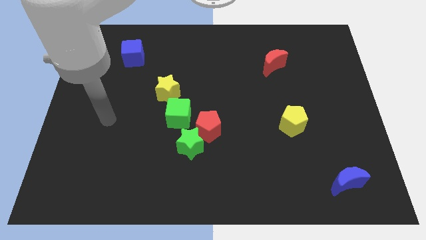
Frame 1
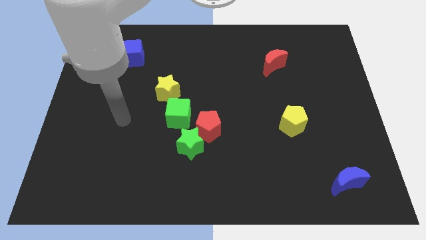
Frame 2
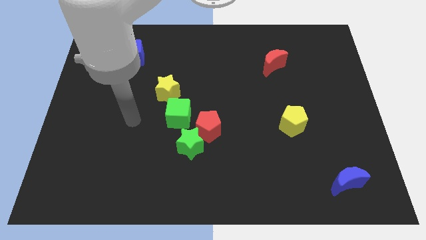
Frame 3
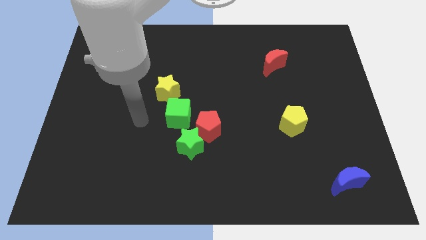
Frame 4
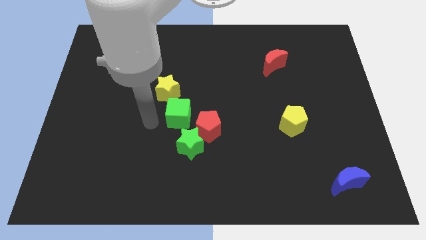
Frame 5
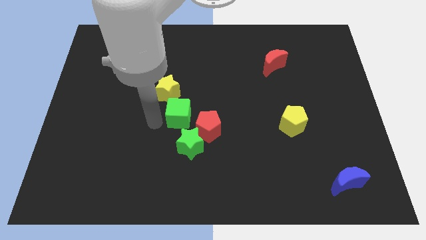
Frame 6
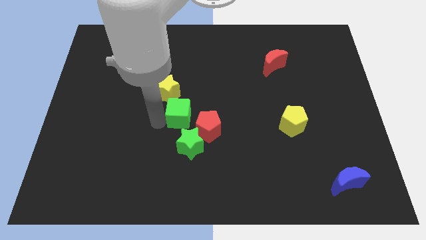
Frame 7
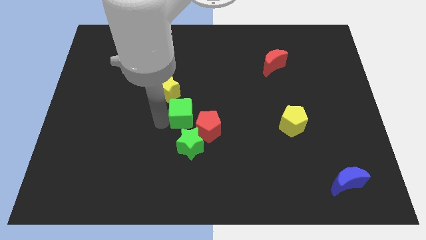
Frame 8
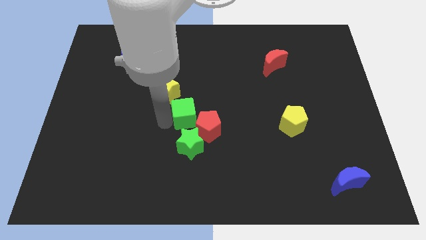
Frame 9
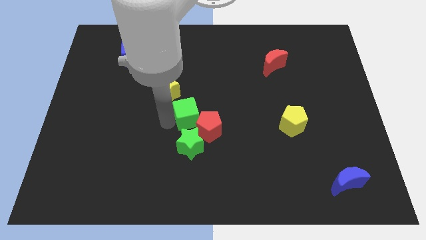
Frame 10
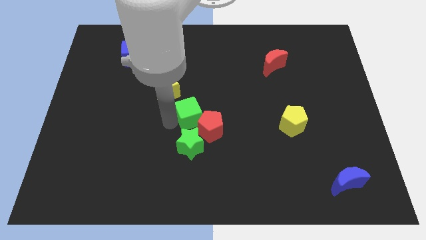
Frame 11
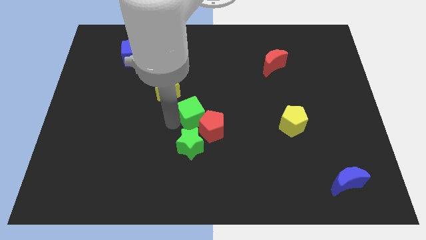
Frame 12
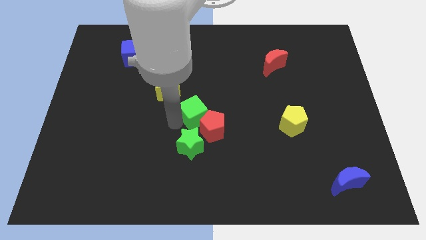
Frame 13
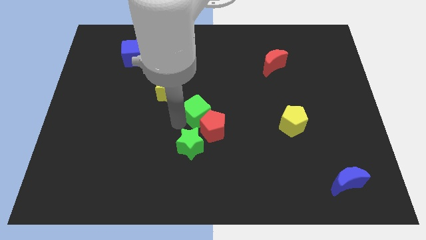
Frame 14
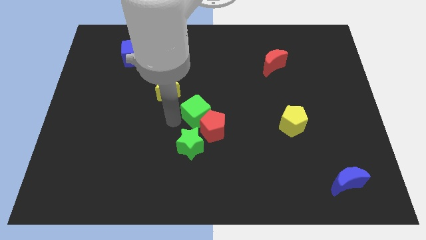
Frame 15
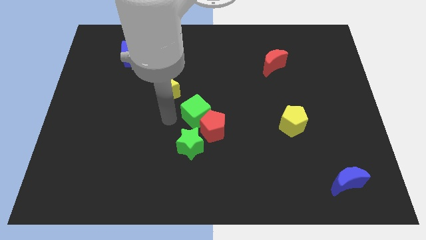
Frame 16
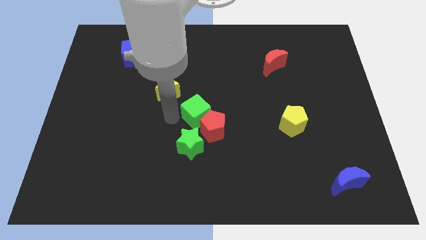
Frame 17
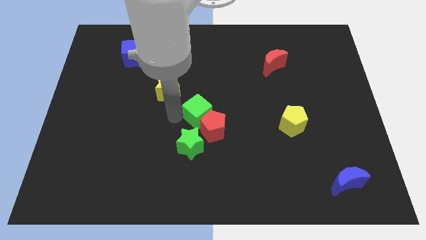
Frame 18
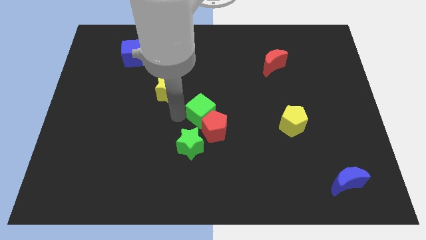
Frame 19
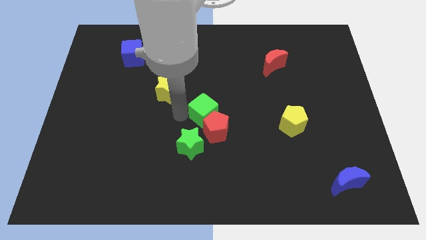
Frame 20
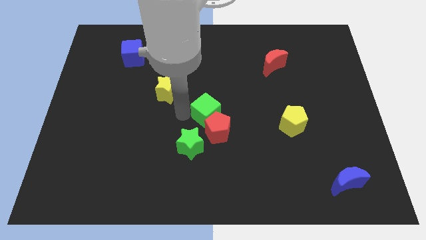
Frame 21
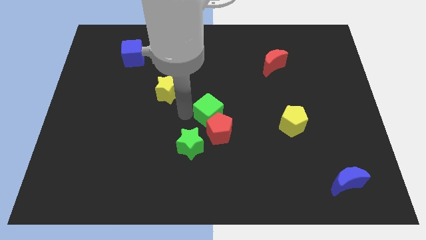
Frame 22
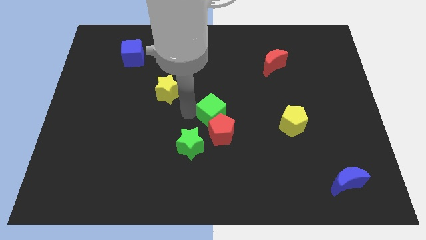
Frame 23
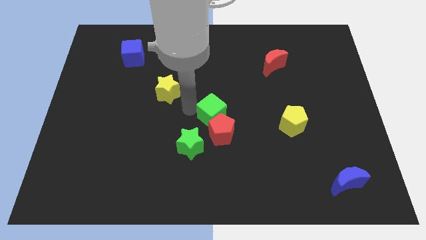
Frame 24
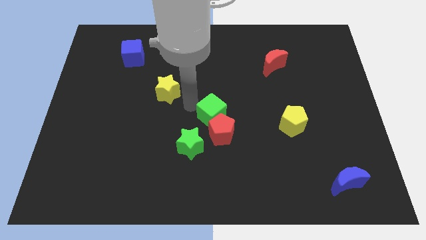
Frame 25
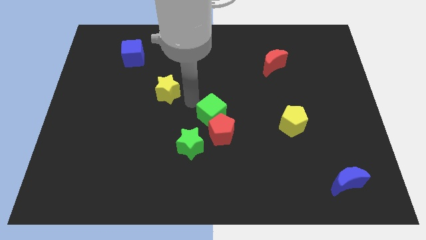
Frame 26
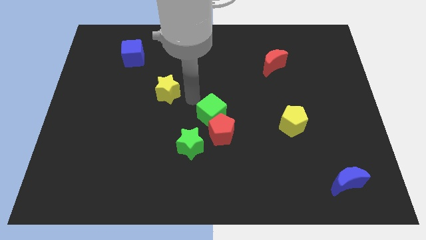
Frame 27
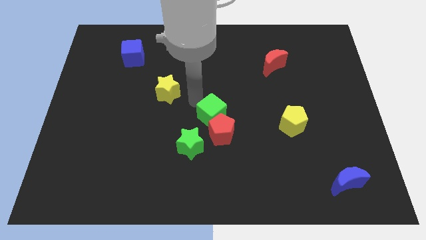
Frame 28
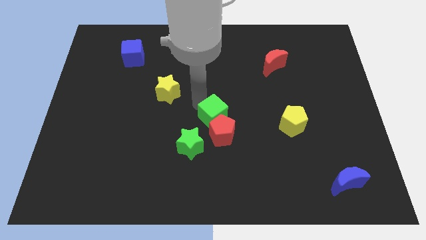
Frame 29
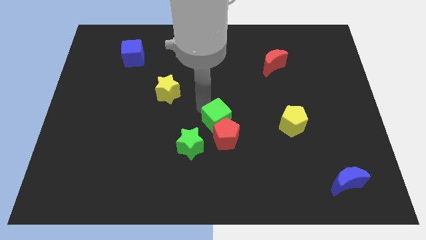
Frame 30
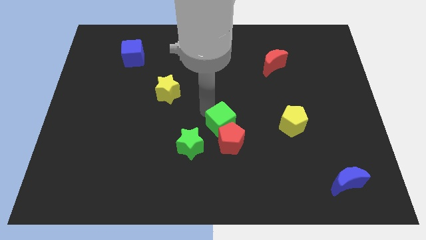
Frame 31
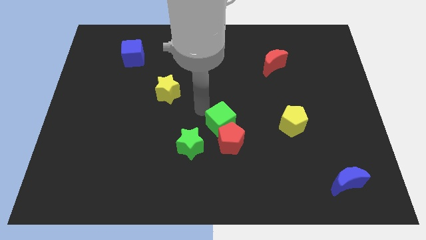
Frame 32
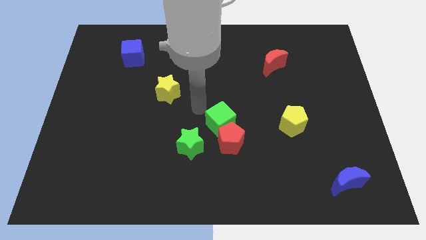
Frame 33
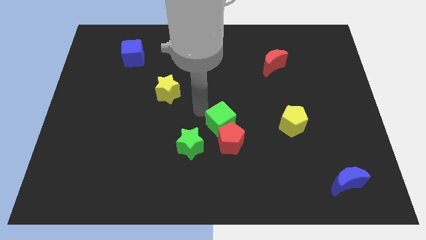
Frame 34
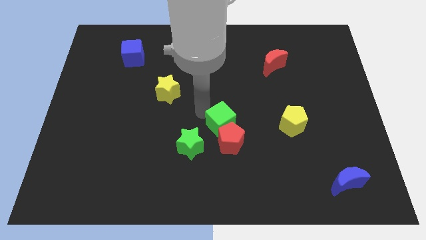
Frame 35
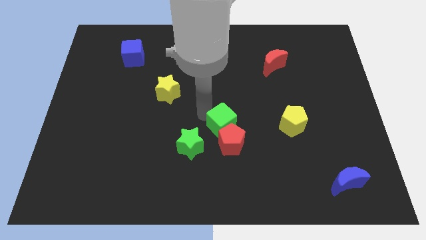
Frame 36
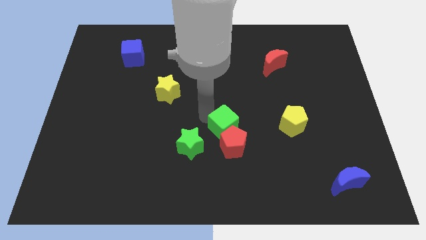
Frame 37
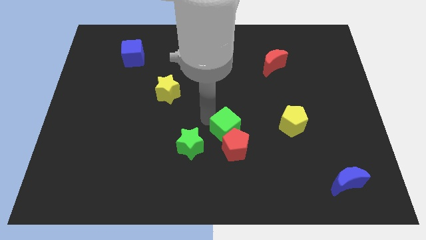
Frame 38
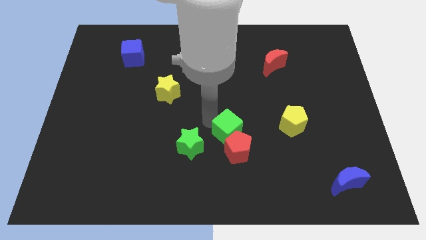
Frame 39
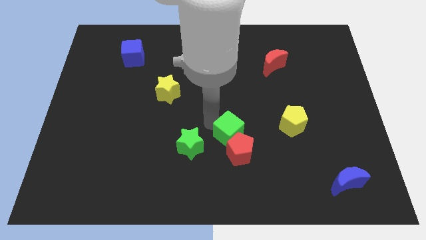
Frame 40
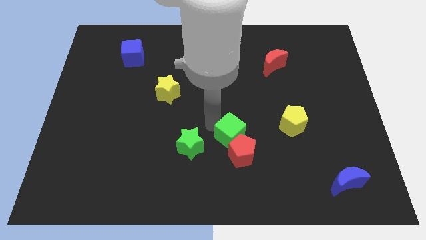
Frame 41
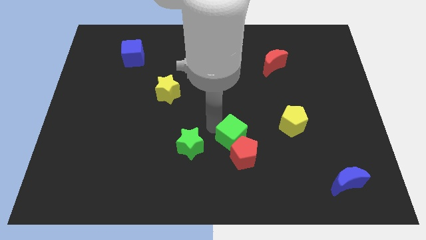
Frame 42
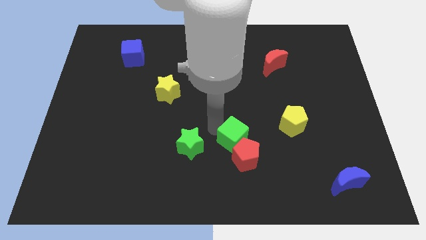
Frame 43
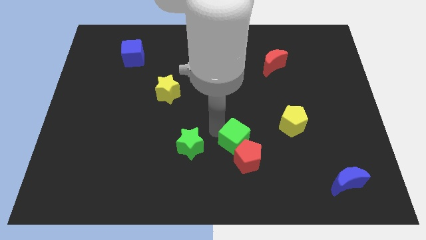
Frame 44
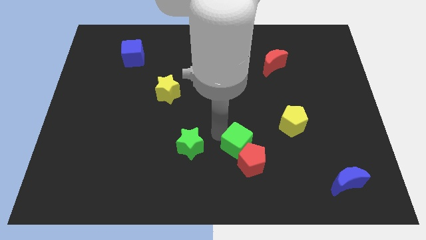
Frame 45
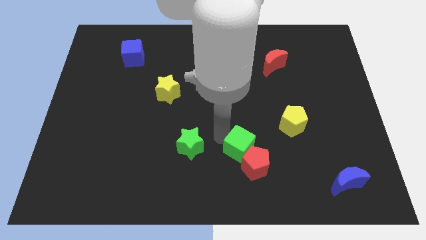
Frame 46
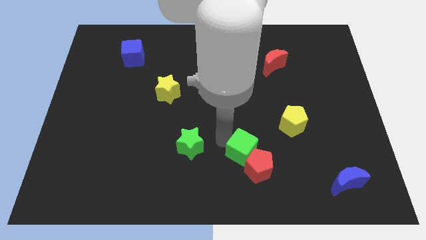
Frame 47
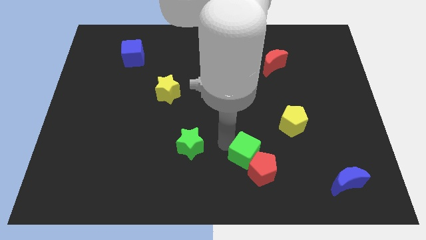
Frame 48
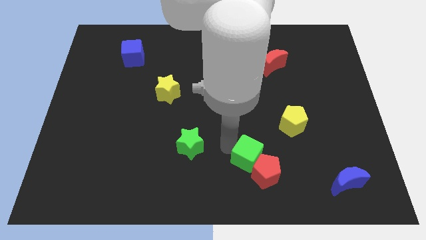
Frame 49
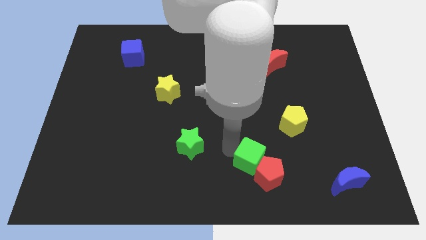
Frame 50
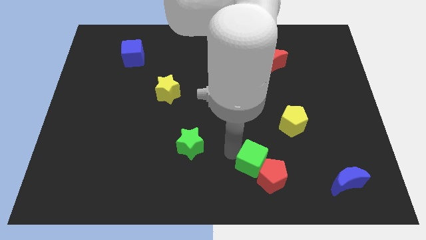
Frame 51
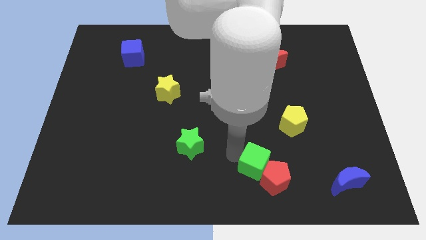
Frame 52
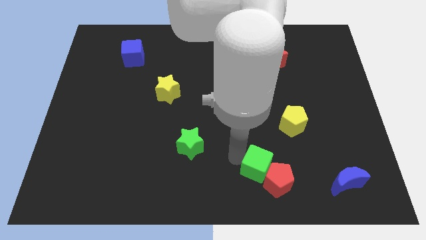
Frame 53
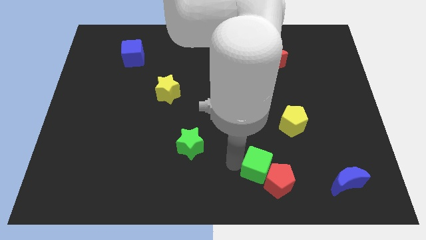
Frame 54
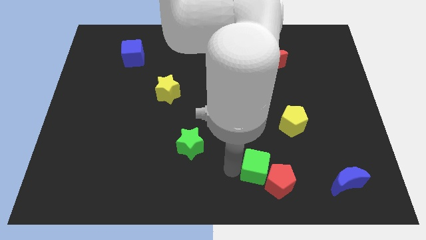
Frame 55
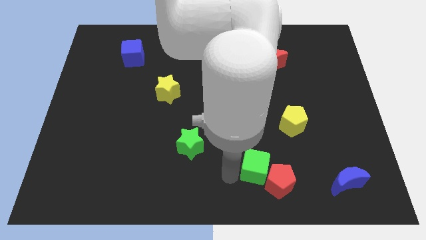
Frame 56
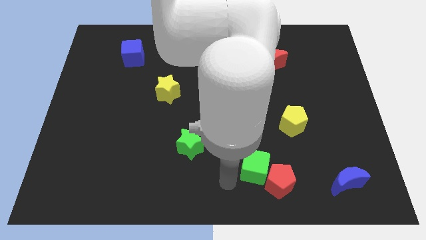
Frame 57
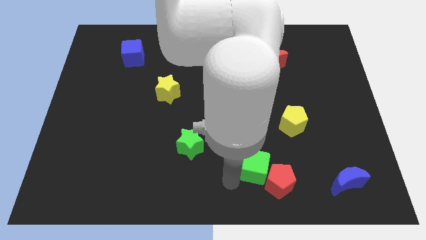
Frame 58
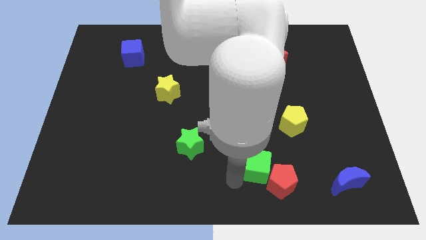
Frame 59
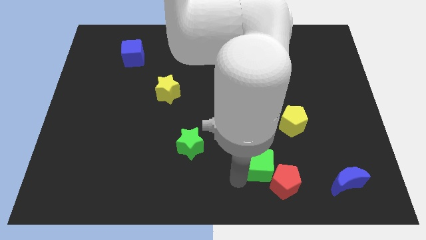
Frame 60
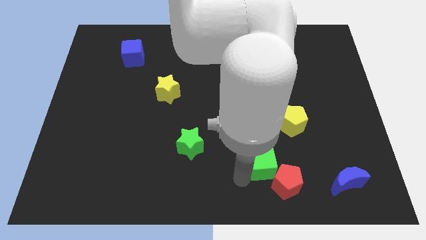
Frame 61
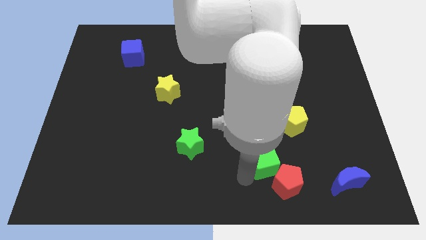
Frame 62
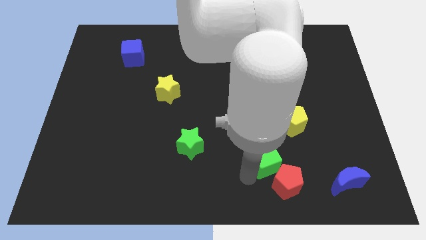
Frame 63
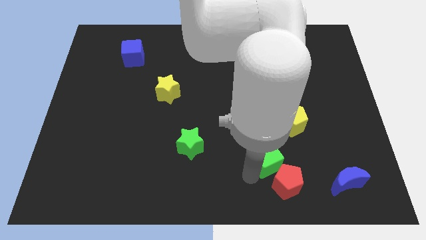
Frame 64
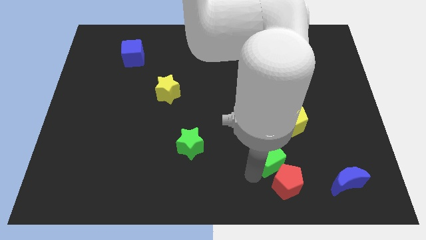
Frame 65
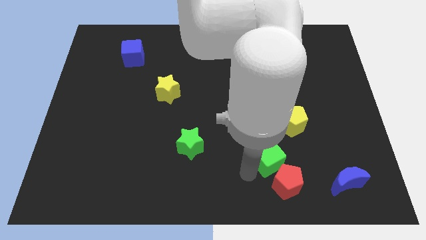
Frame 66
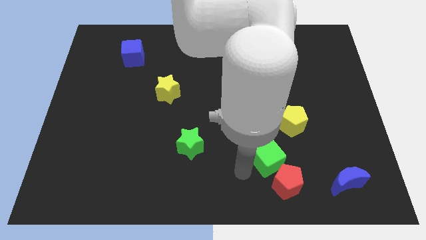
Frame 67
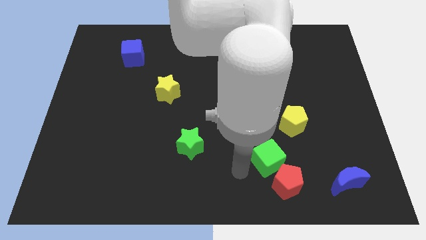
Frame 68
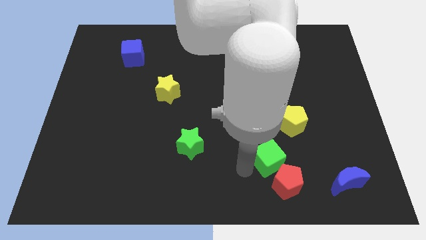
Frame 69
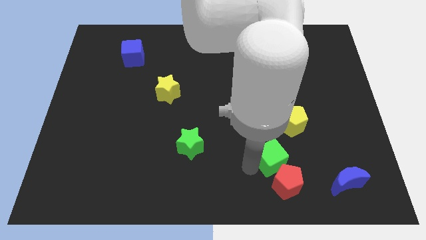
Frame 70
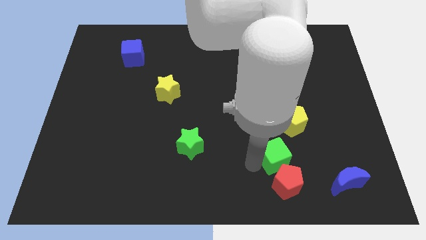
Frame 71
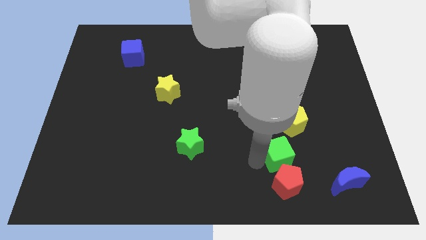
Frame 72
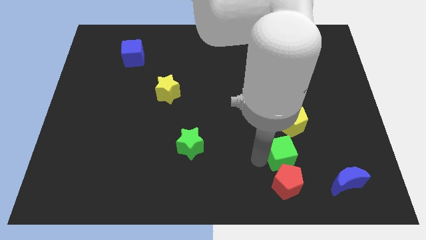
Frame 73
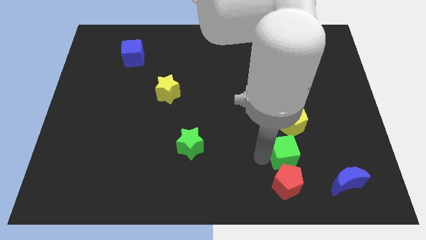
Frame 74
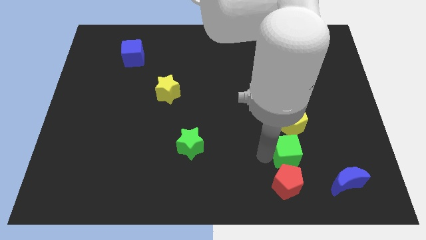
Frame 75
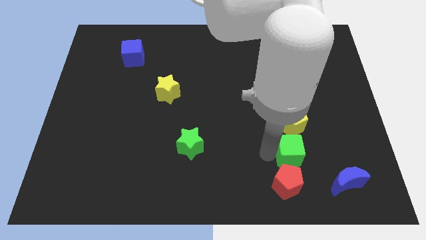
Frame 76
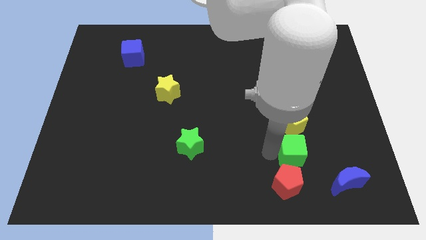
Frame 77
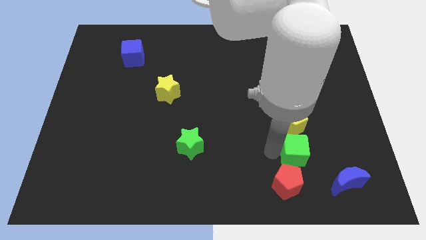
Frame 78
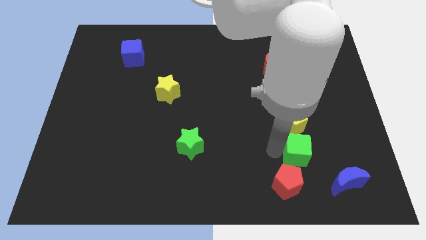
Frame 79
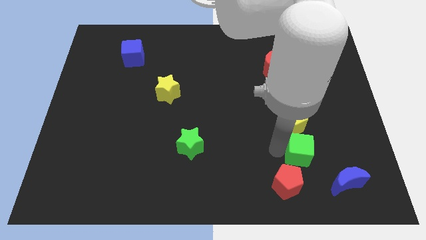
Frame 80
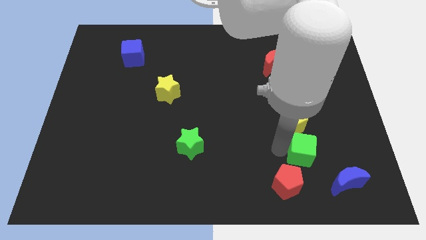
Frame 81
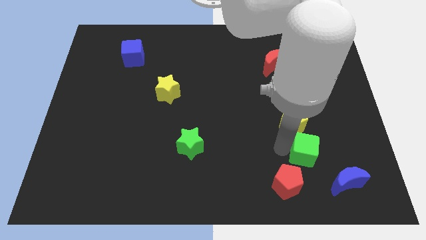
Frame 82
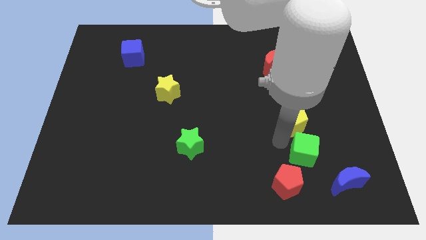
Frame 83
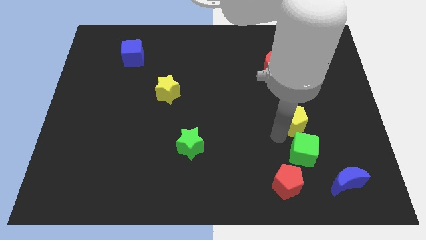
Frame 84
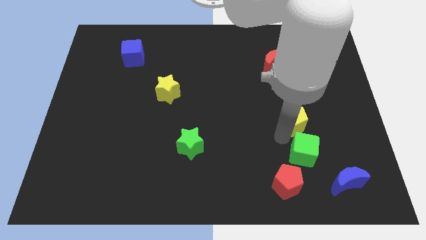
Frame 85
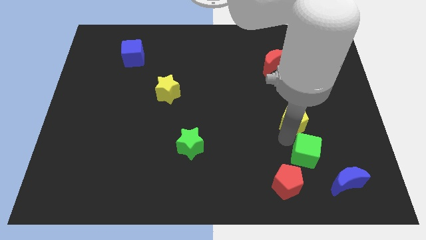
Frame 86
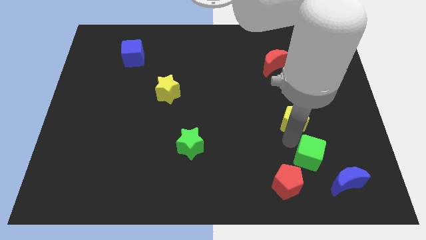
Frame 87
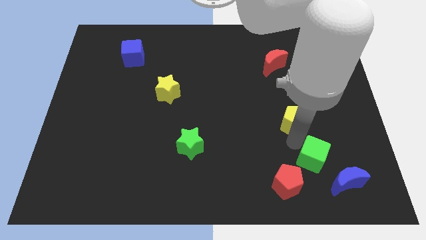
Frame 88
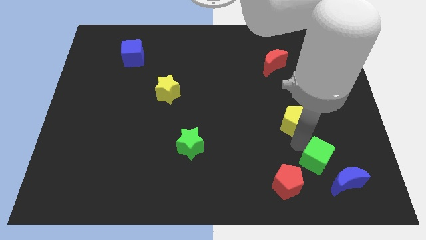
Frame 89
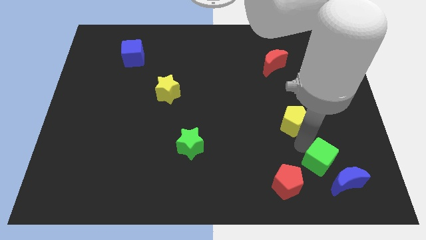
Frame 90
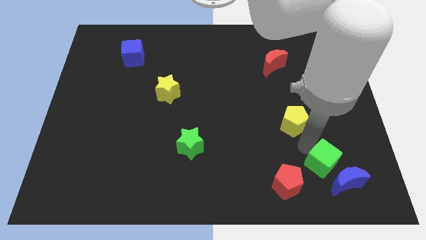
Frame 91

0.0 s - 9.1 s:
put the green cube close to the blue moon
